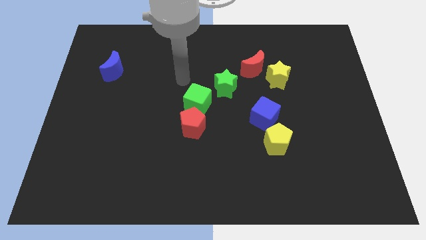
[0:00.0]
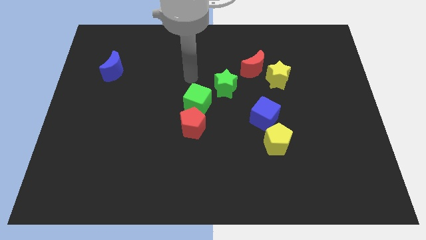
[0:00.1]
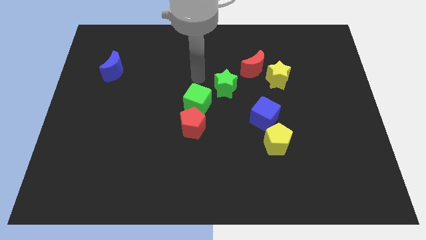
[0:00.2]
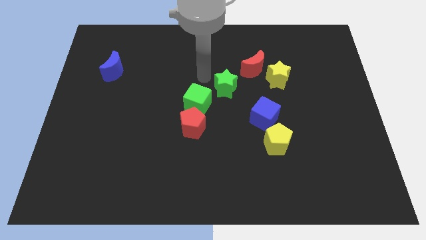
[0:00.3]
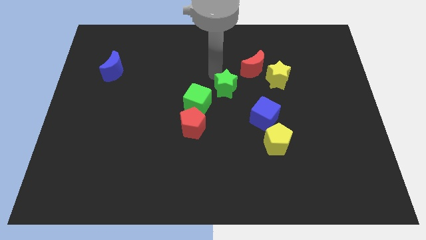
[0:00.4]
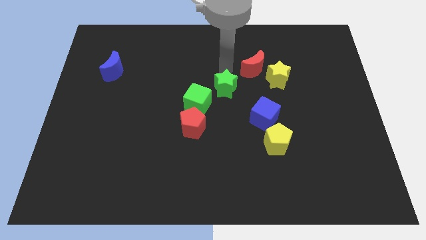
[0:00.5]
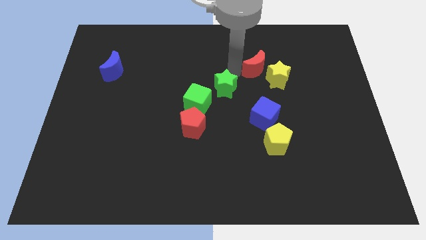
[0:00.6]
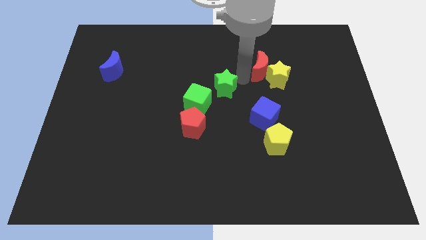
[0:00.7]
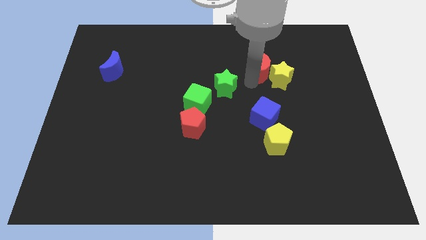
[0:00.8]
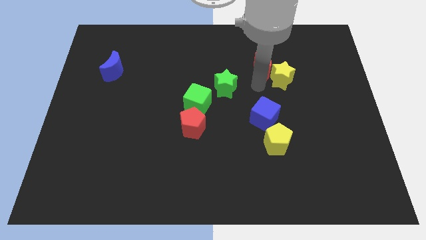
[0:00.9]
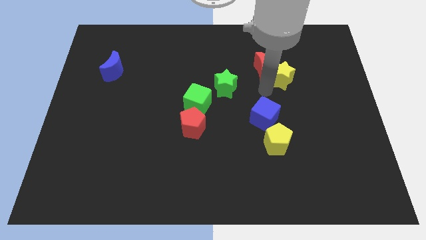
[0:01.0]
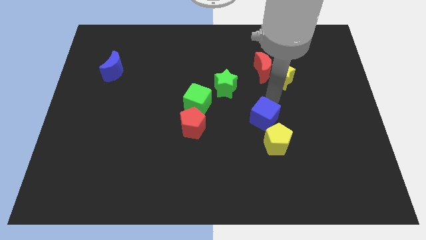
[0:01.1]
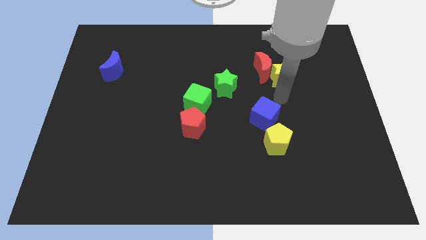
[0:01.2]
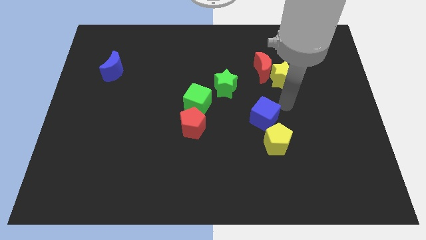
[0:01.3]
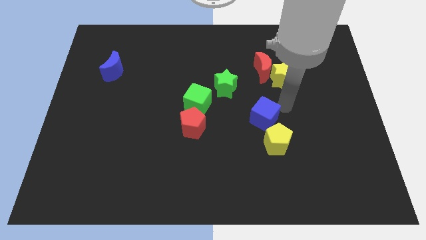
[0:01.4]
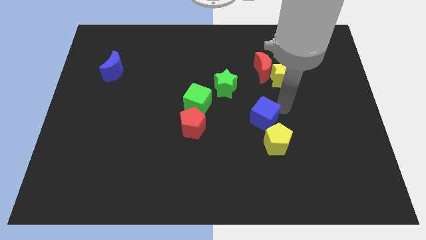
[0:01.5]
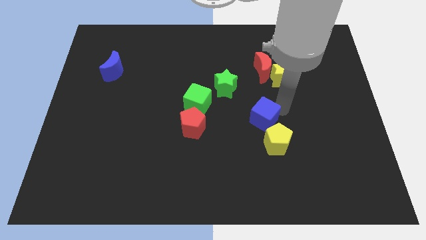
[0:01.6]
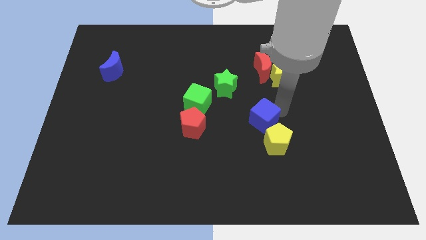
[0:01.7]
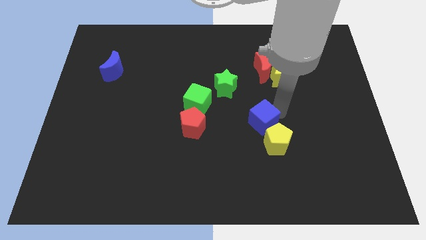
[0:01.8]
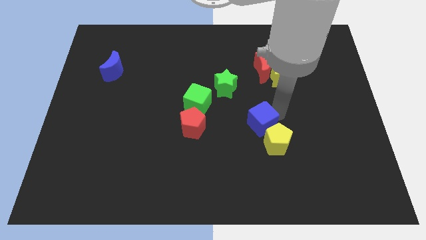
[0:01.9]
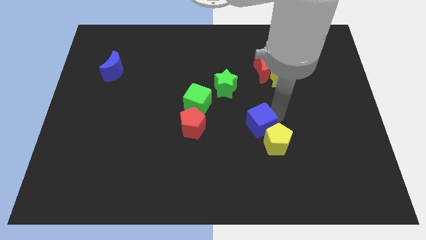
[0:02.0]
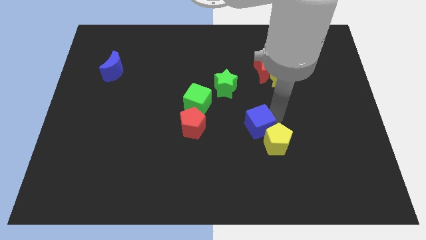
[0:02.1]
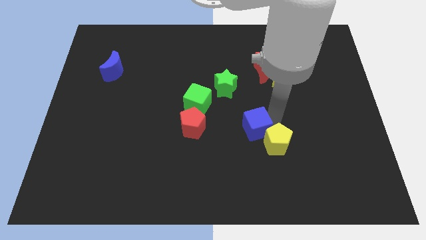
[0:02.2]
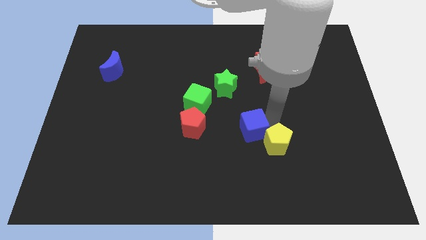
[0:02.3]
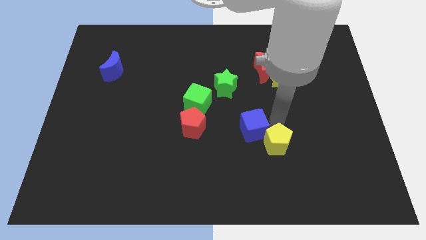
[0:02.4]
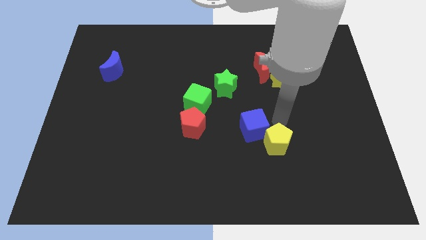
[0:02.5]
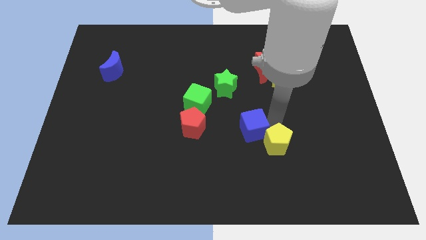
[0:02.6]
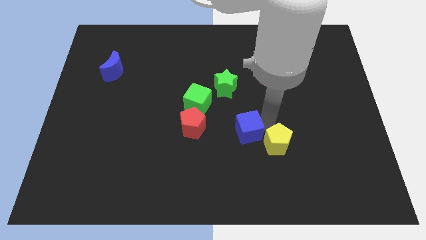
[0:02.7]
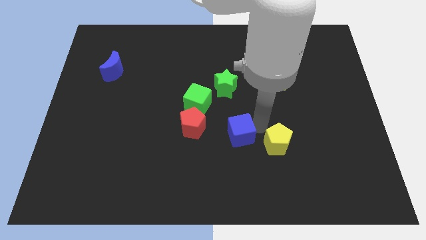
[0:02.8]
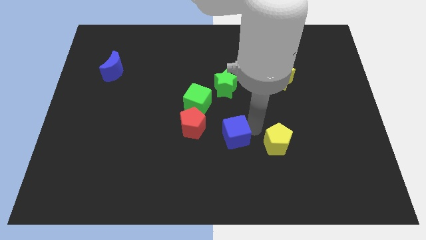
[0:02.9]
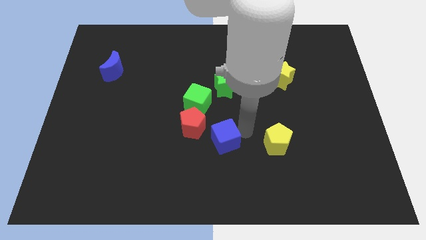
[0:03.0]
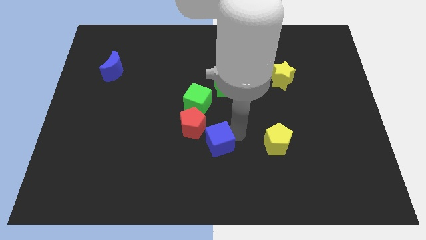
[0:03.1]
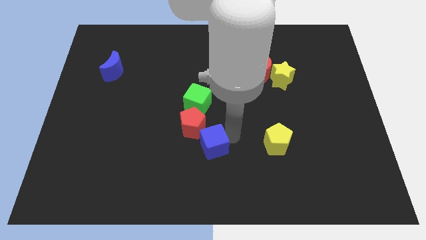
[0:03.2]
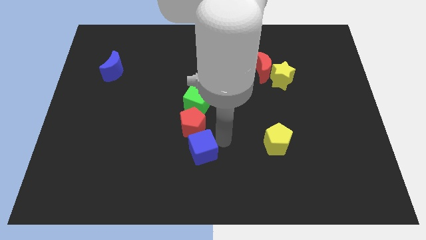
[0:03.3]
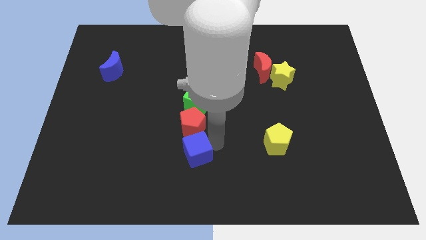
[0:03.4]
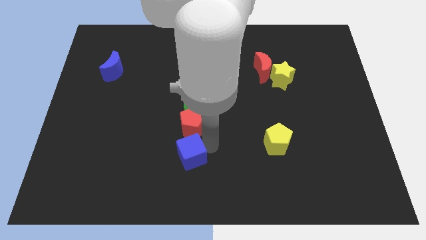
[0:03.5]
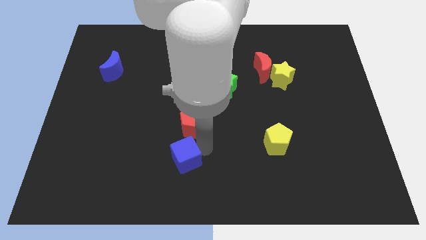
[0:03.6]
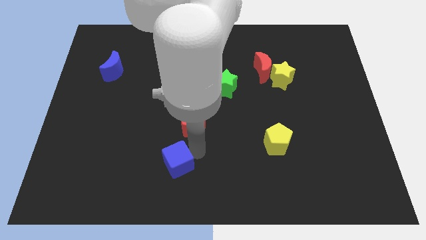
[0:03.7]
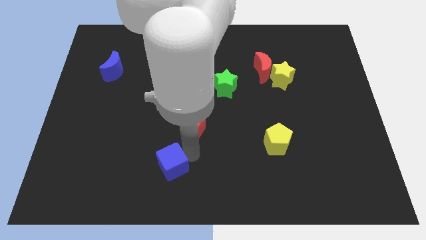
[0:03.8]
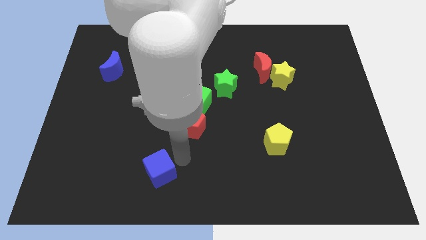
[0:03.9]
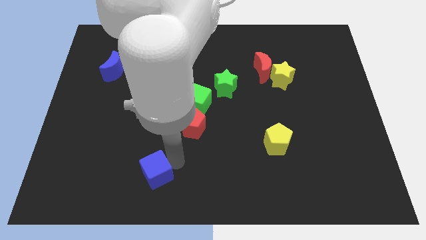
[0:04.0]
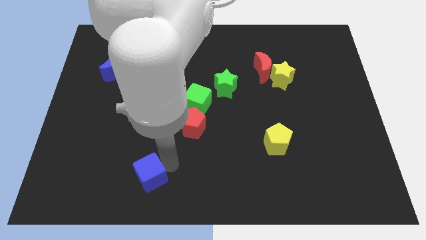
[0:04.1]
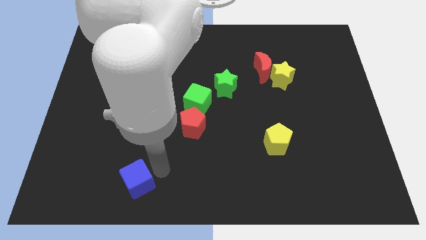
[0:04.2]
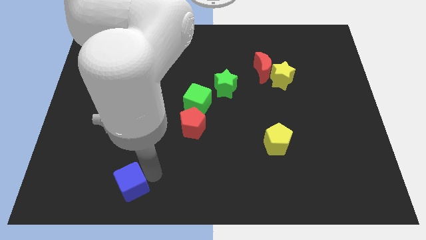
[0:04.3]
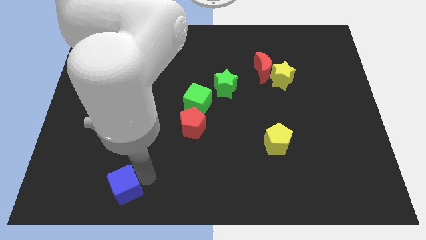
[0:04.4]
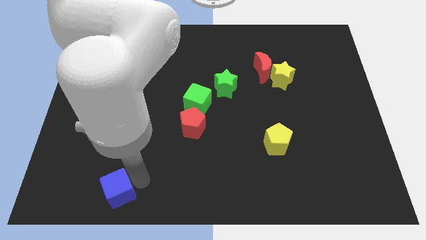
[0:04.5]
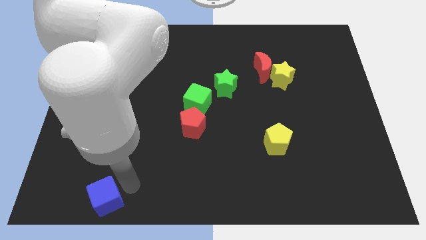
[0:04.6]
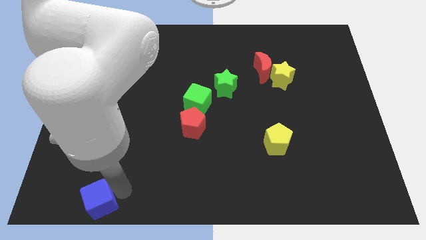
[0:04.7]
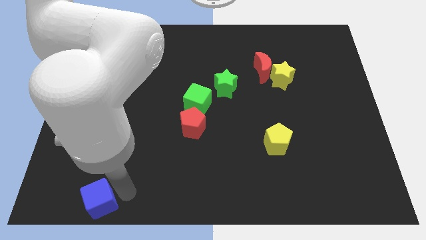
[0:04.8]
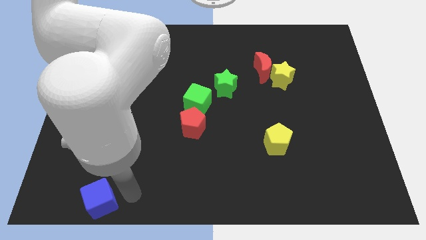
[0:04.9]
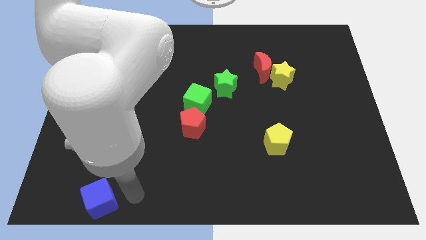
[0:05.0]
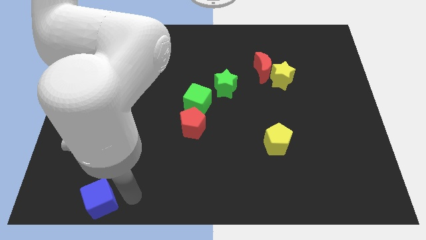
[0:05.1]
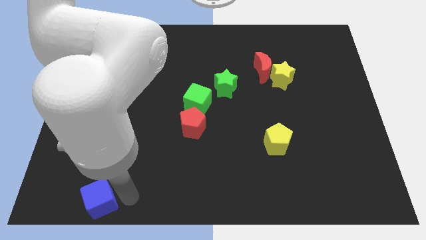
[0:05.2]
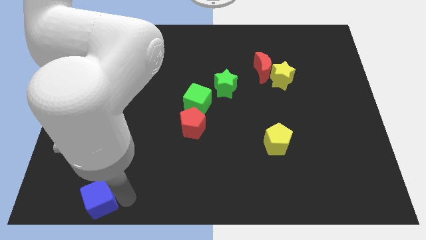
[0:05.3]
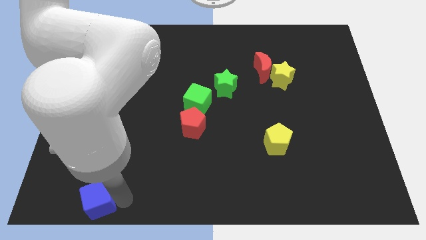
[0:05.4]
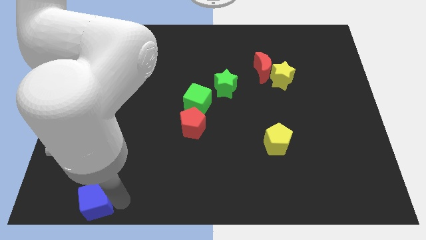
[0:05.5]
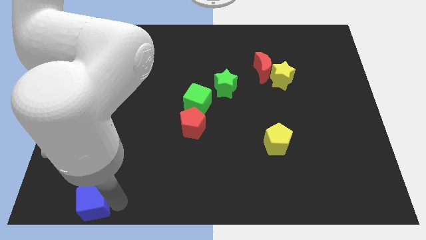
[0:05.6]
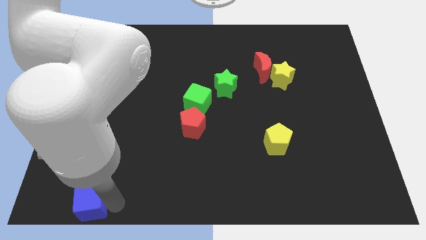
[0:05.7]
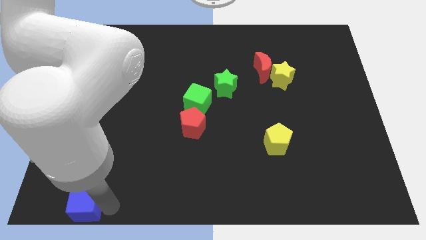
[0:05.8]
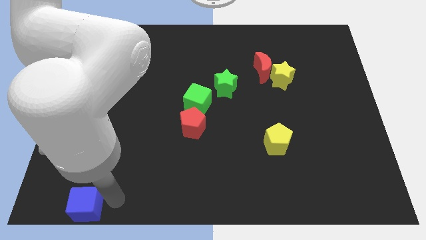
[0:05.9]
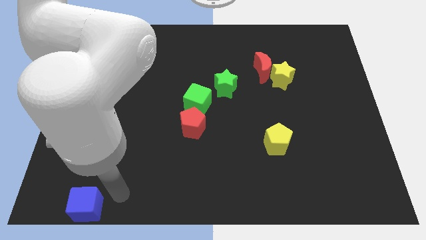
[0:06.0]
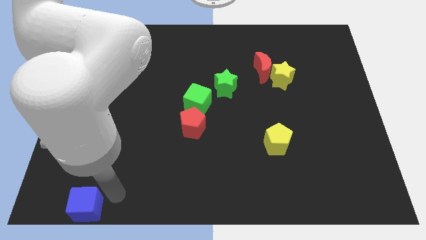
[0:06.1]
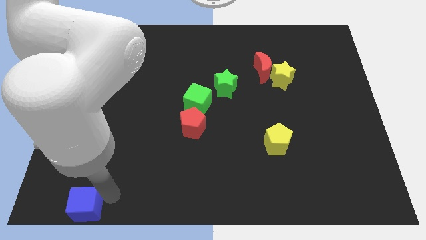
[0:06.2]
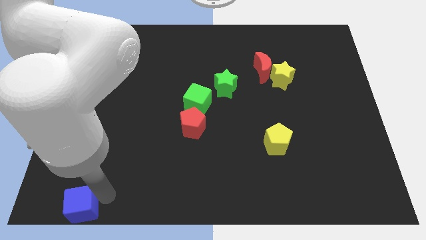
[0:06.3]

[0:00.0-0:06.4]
move the blue cube to the lower left corner
